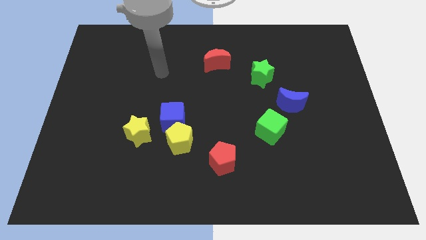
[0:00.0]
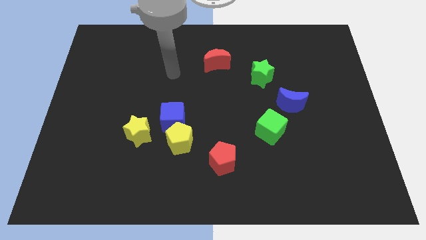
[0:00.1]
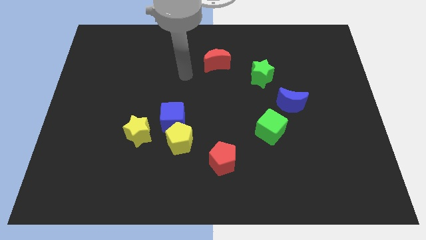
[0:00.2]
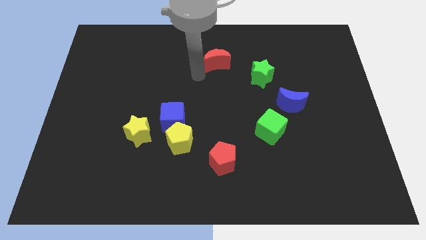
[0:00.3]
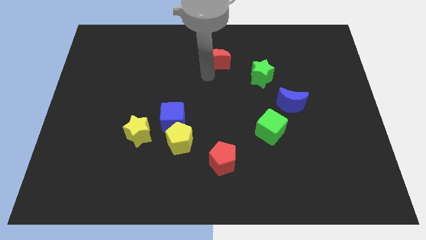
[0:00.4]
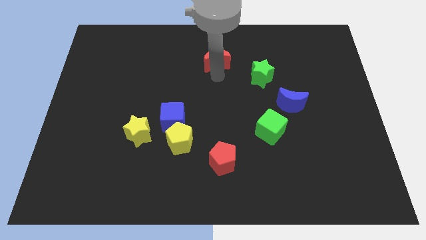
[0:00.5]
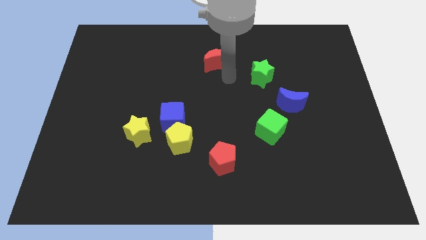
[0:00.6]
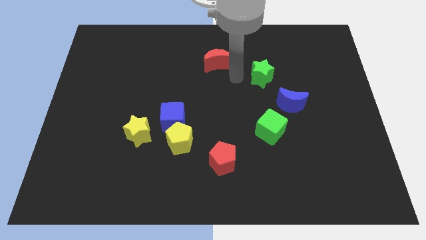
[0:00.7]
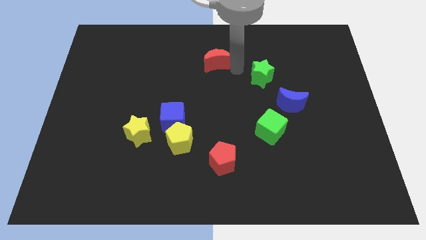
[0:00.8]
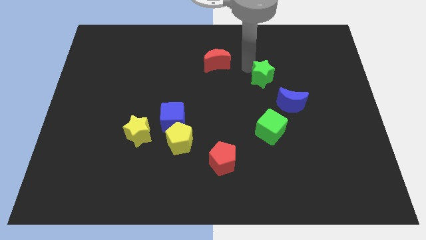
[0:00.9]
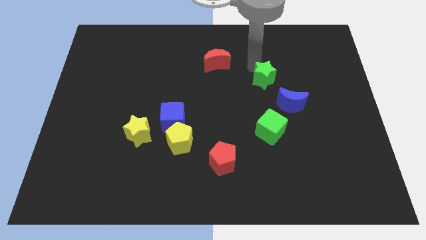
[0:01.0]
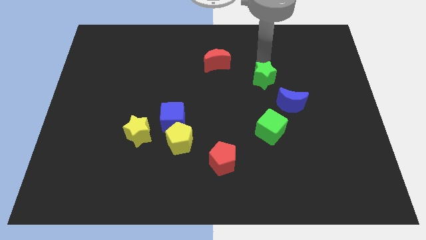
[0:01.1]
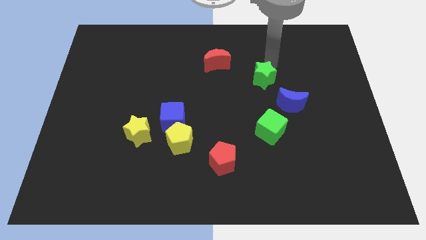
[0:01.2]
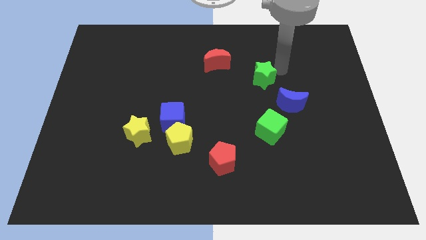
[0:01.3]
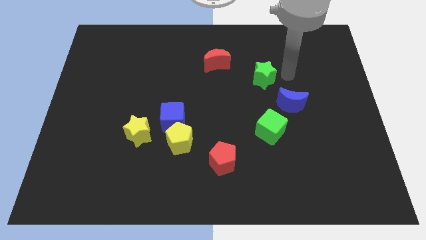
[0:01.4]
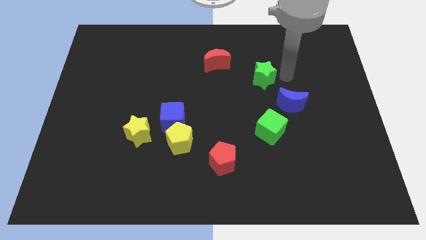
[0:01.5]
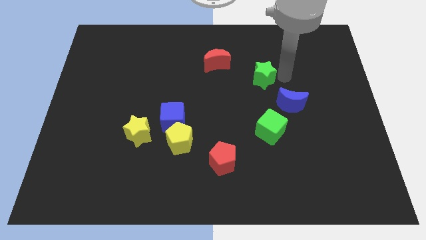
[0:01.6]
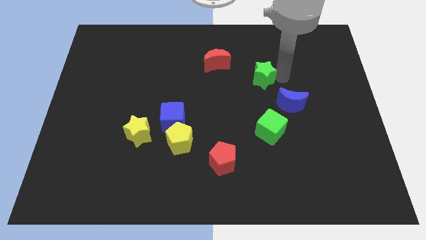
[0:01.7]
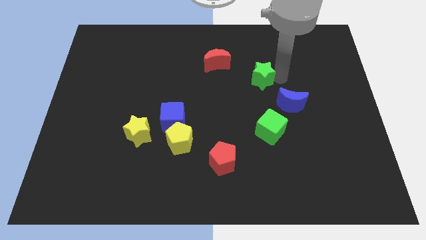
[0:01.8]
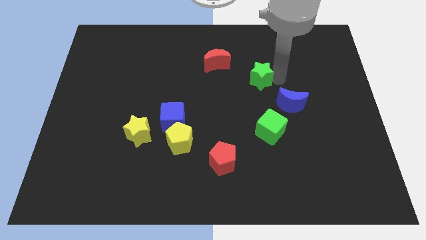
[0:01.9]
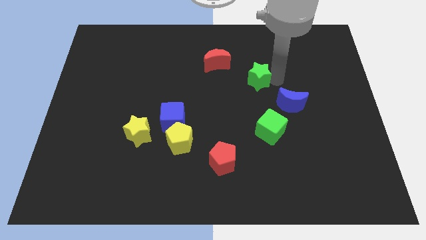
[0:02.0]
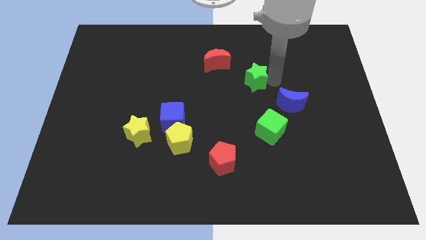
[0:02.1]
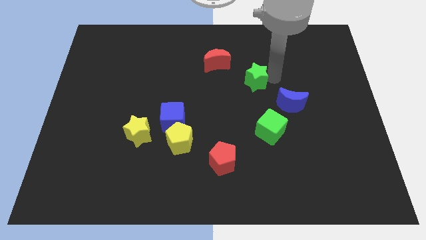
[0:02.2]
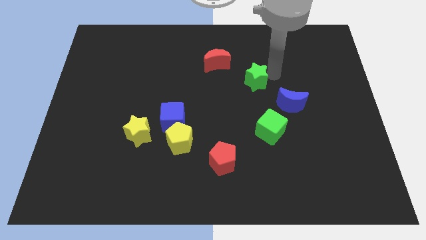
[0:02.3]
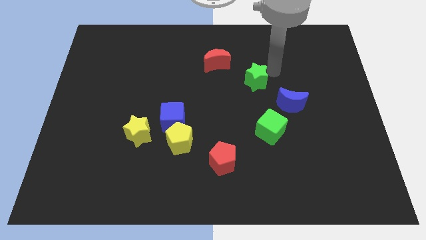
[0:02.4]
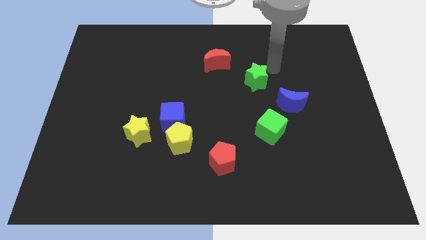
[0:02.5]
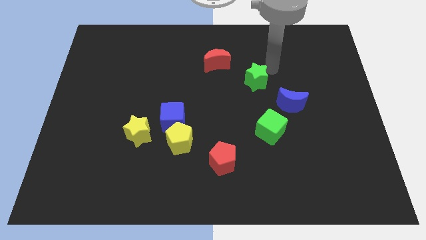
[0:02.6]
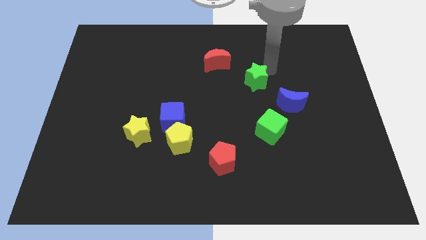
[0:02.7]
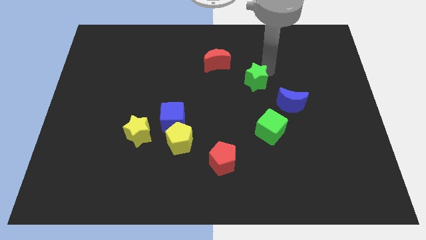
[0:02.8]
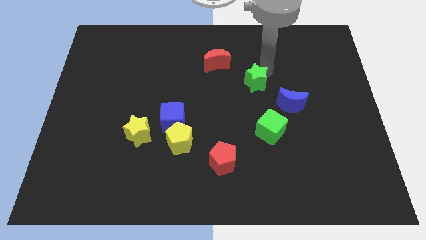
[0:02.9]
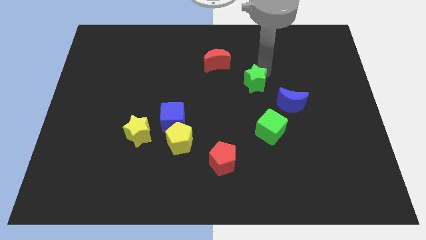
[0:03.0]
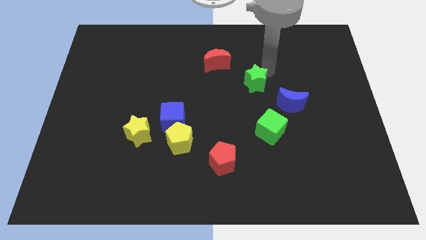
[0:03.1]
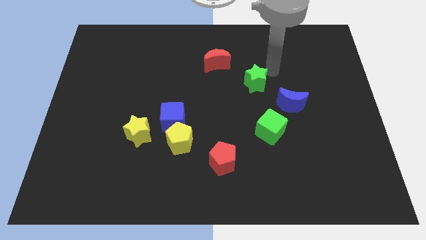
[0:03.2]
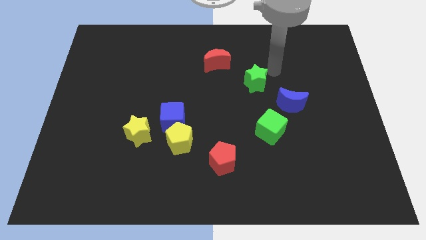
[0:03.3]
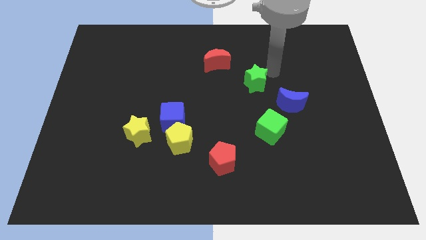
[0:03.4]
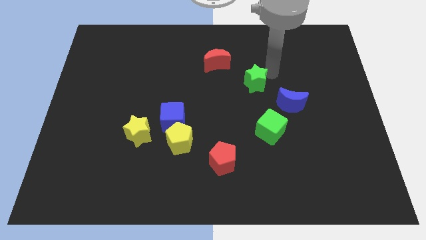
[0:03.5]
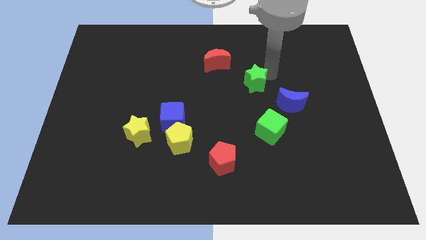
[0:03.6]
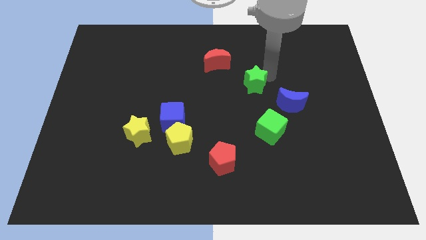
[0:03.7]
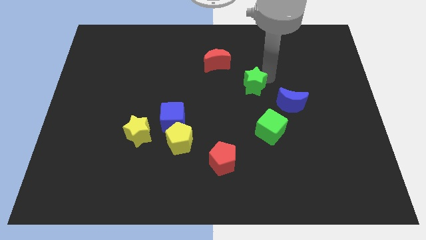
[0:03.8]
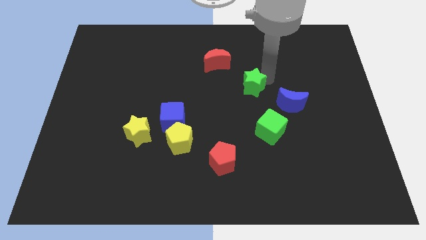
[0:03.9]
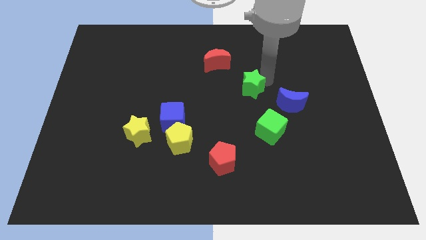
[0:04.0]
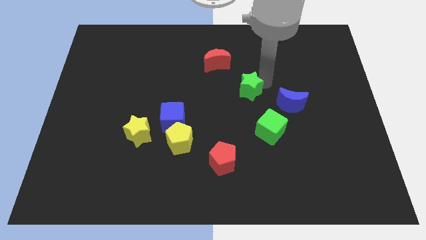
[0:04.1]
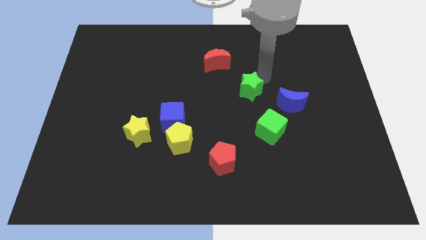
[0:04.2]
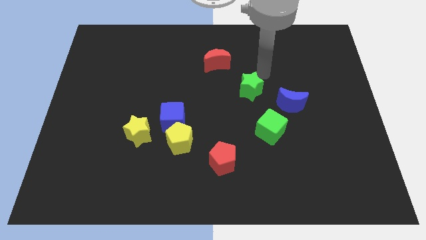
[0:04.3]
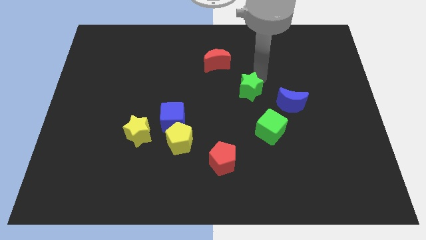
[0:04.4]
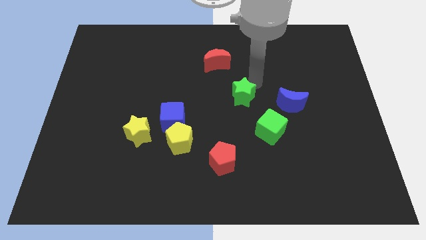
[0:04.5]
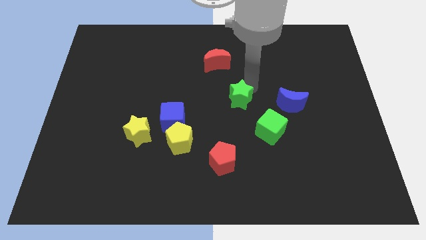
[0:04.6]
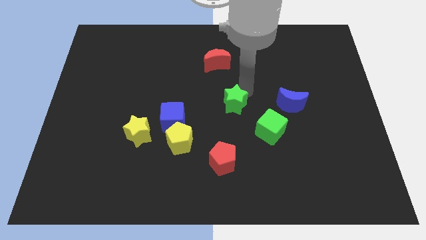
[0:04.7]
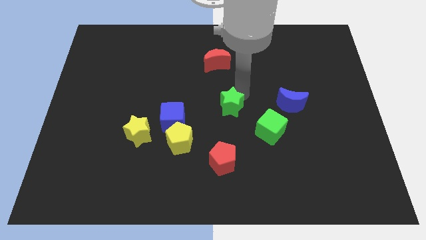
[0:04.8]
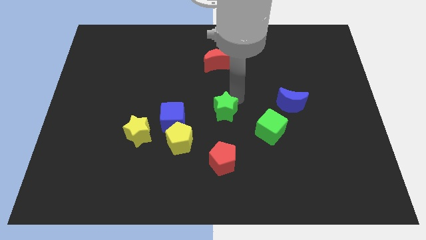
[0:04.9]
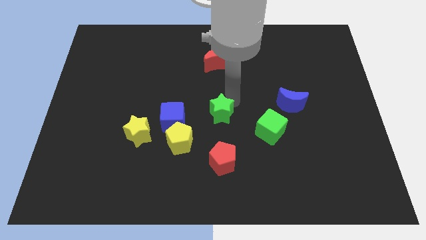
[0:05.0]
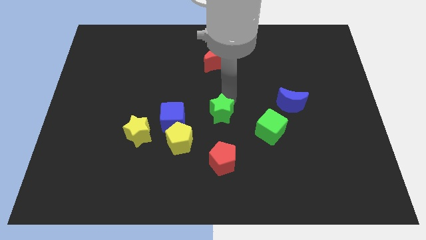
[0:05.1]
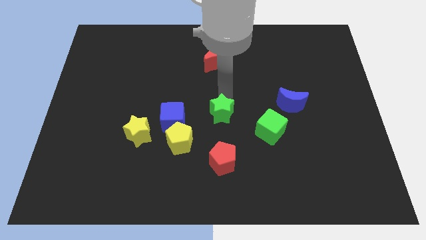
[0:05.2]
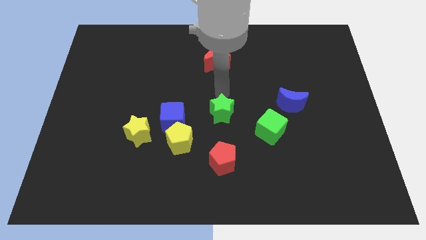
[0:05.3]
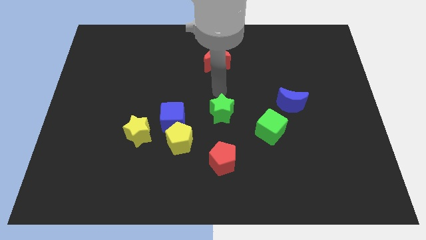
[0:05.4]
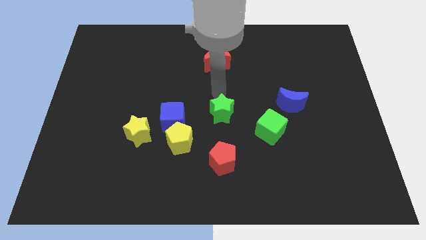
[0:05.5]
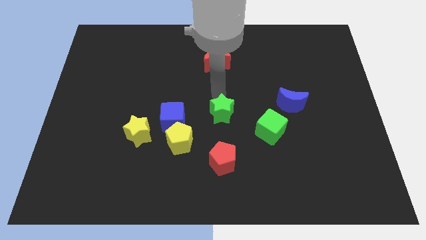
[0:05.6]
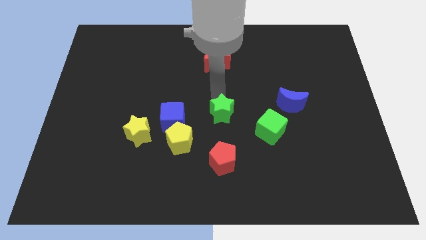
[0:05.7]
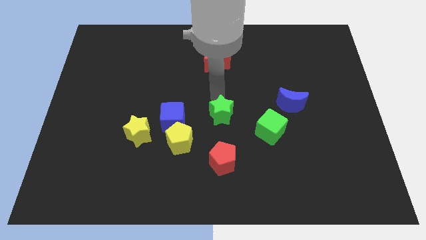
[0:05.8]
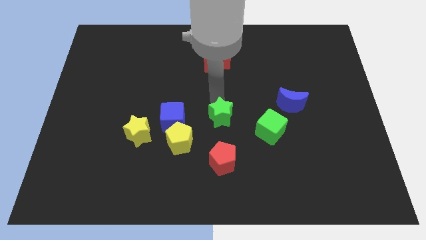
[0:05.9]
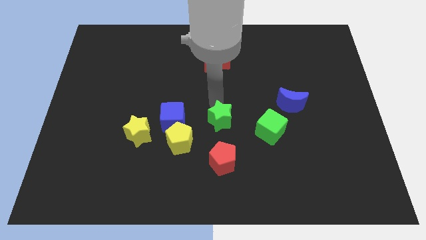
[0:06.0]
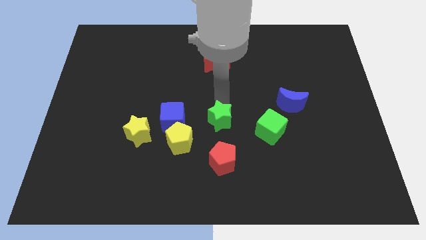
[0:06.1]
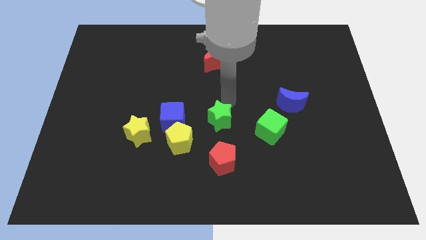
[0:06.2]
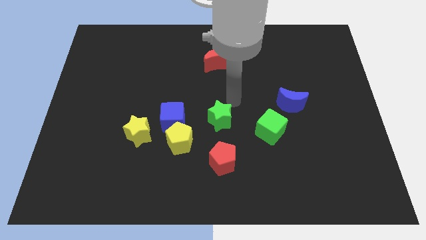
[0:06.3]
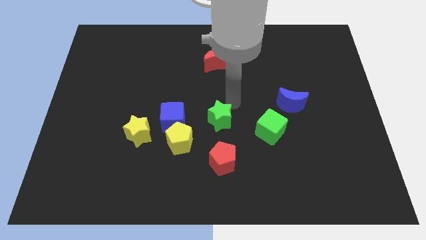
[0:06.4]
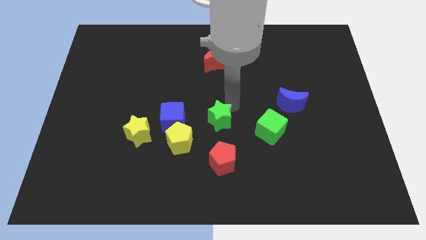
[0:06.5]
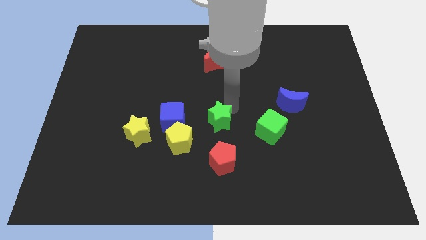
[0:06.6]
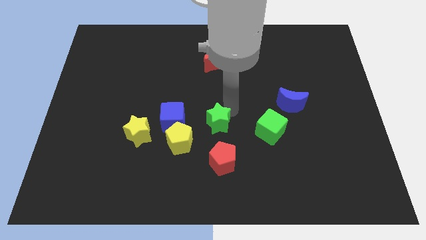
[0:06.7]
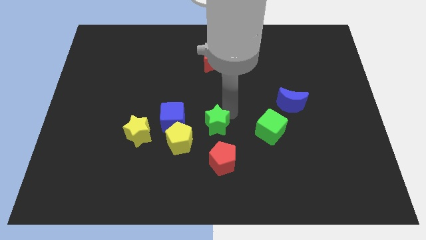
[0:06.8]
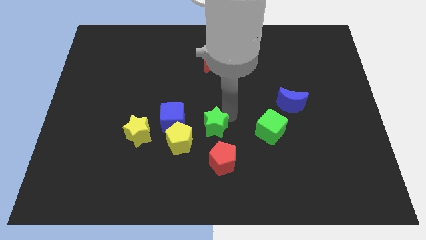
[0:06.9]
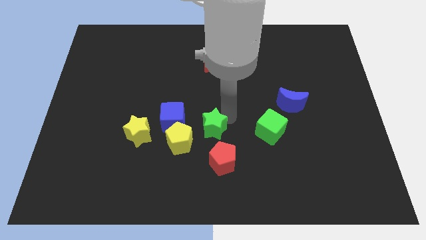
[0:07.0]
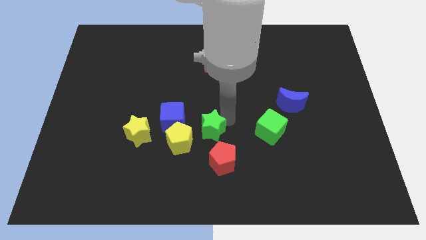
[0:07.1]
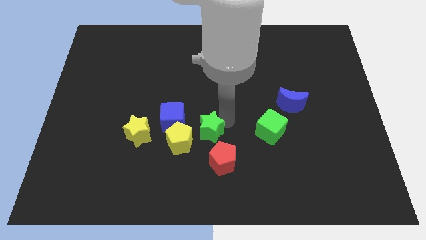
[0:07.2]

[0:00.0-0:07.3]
slide the green star diagonally down and left

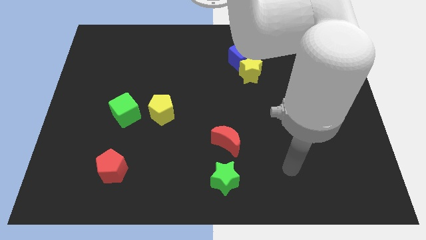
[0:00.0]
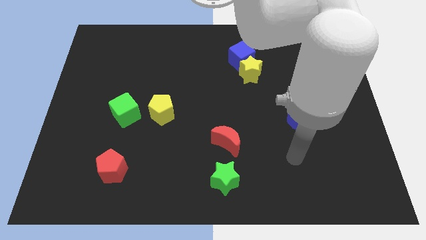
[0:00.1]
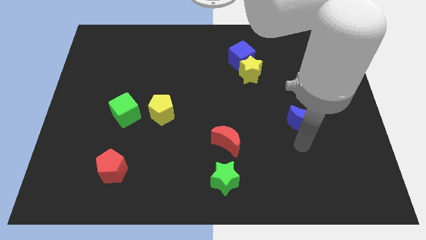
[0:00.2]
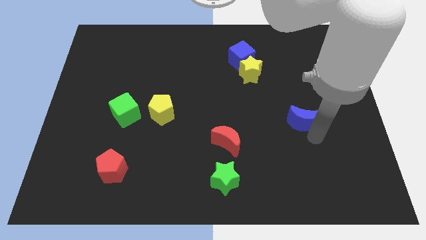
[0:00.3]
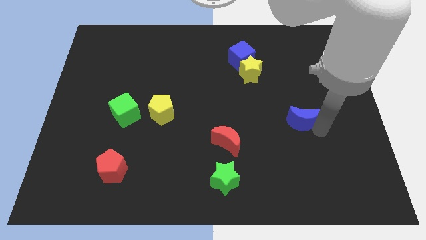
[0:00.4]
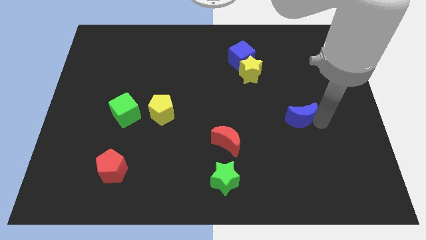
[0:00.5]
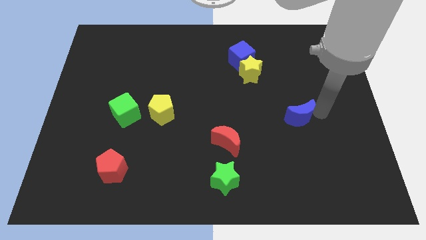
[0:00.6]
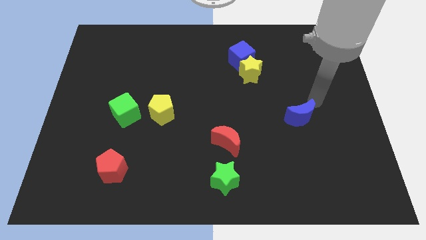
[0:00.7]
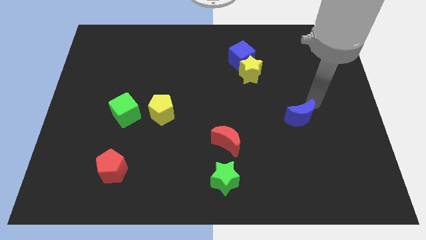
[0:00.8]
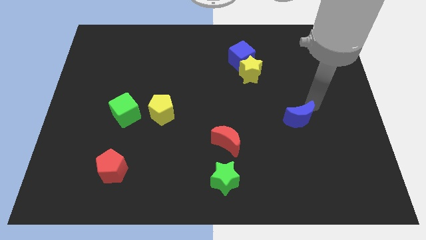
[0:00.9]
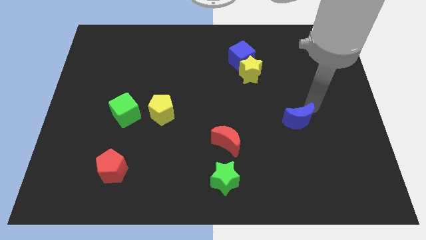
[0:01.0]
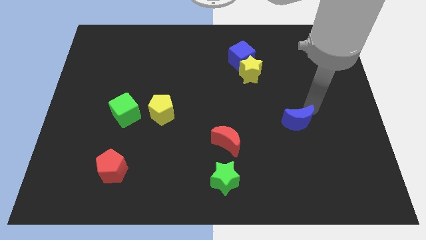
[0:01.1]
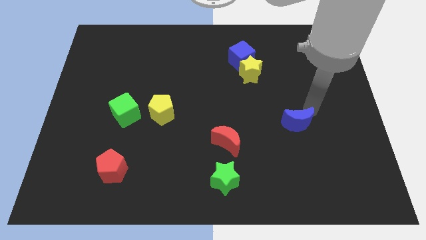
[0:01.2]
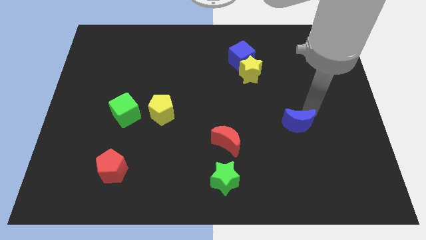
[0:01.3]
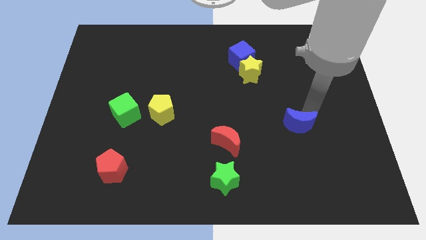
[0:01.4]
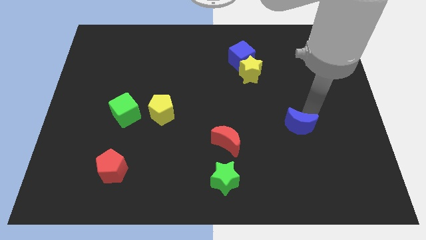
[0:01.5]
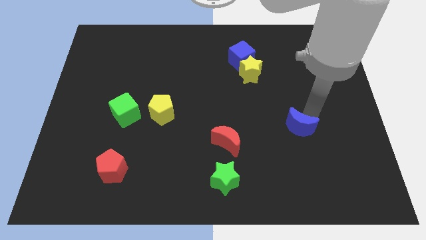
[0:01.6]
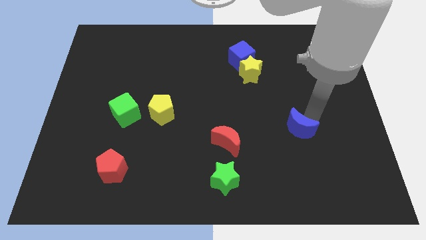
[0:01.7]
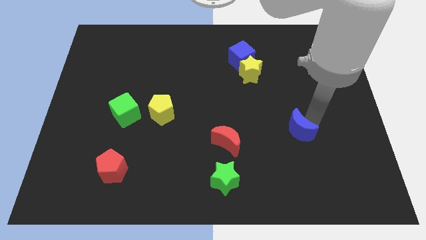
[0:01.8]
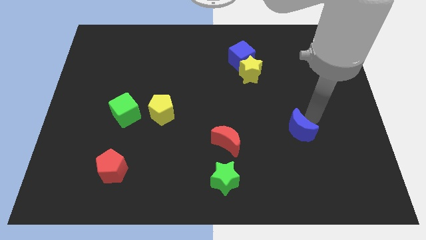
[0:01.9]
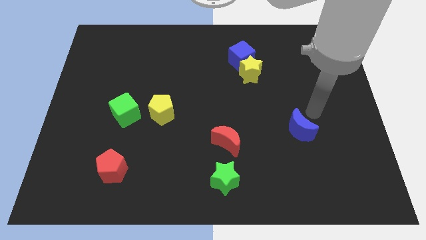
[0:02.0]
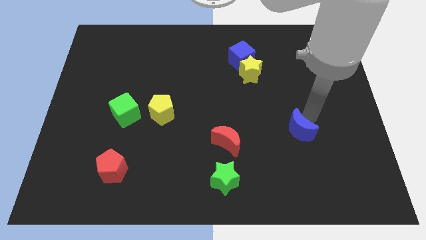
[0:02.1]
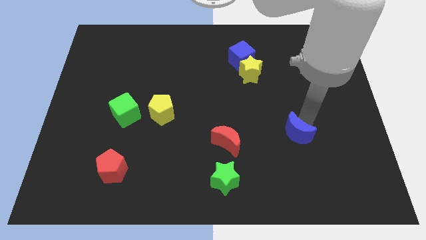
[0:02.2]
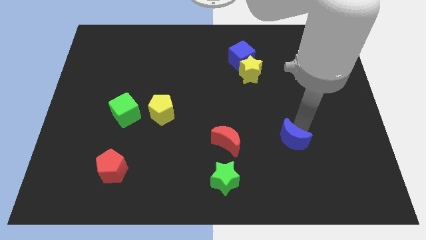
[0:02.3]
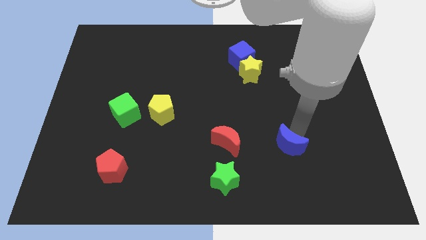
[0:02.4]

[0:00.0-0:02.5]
push the blue moon a little bit downwards and to the left diagonally
